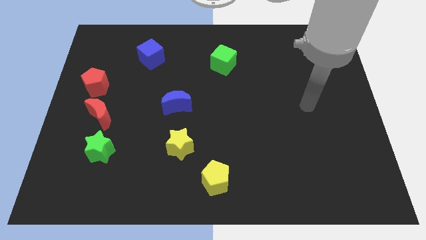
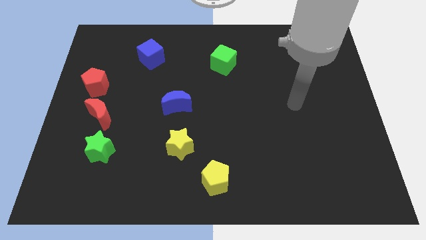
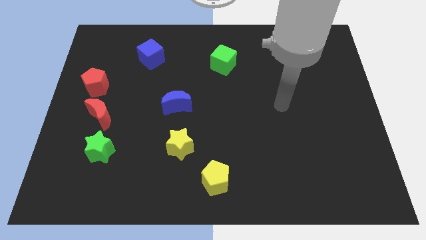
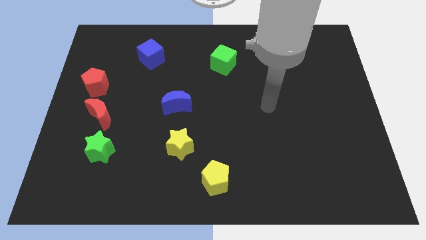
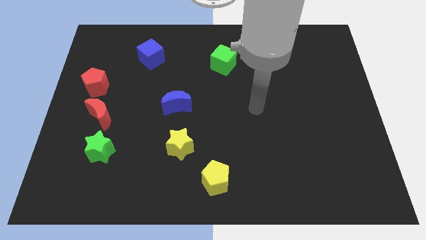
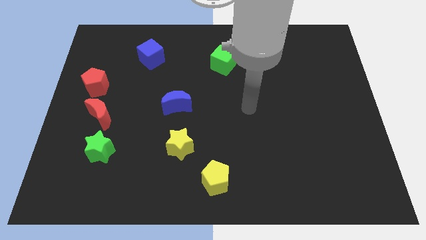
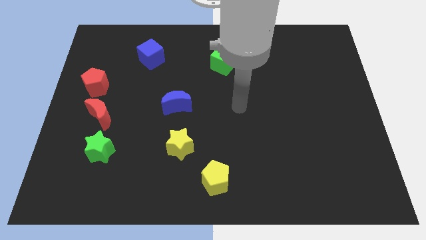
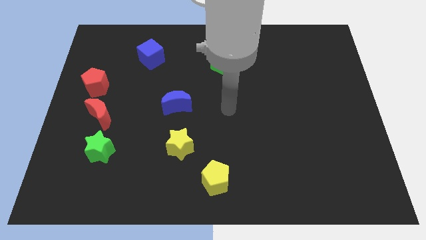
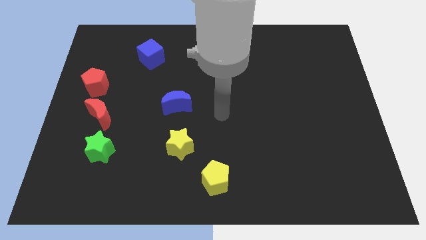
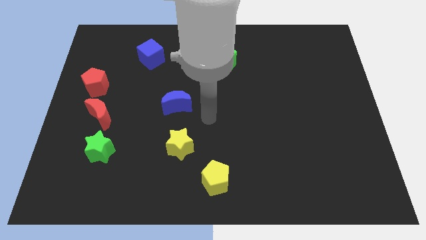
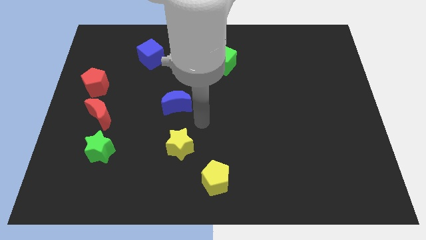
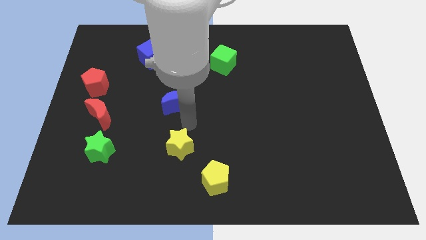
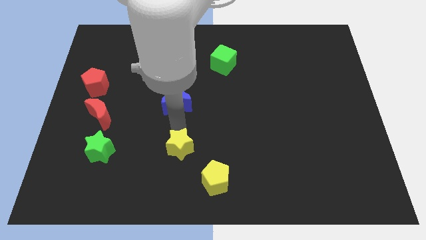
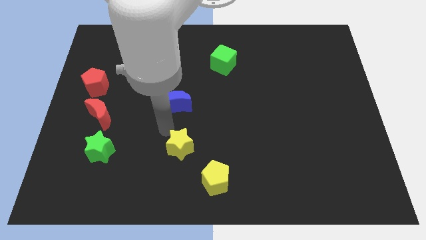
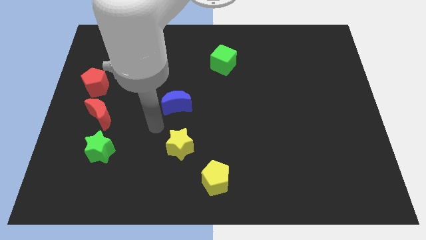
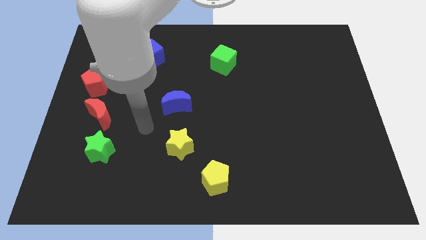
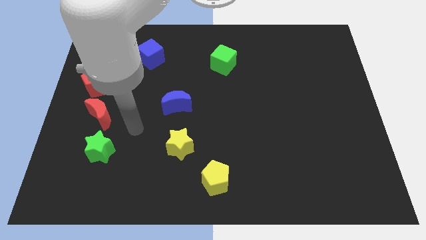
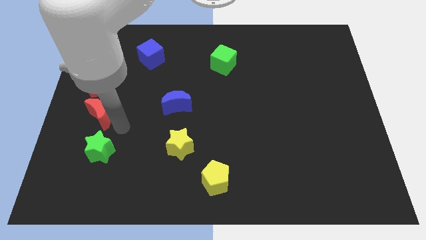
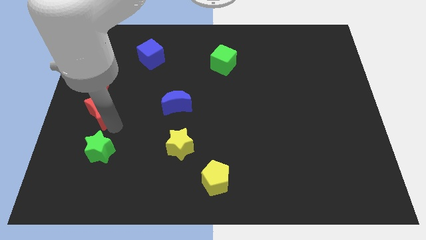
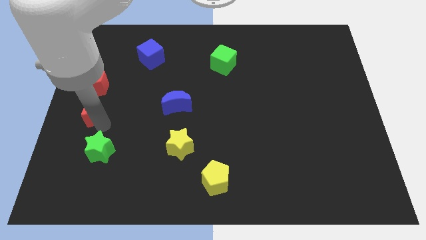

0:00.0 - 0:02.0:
pull the green star apart from the red moon

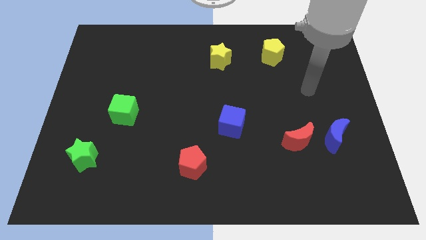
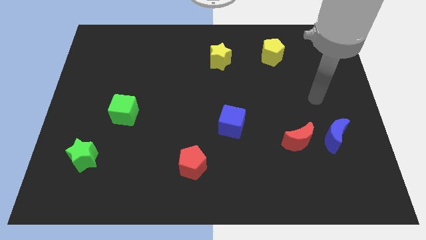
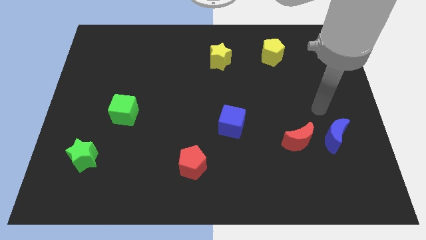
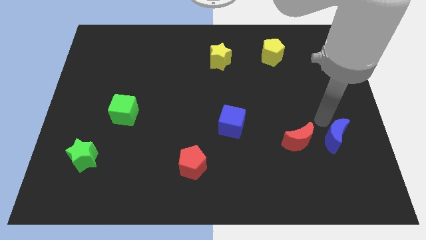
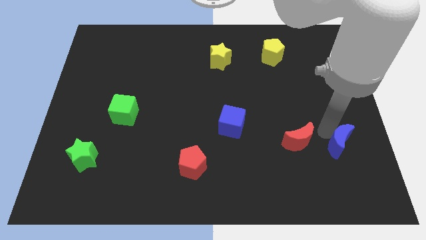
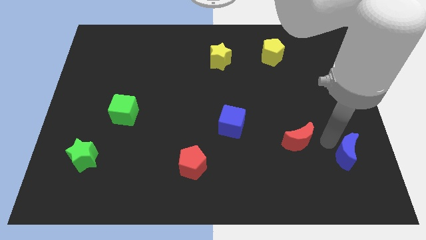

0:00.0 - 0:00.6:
move the red moon away from the blue moon

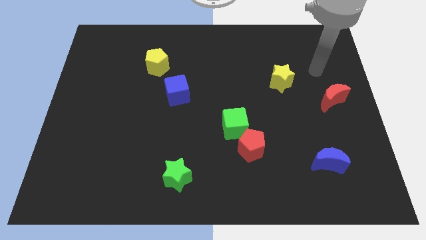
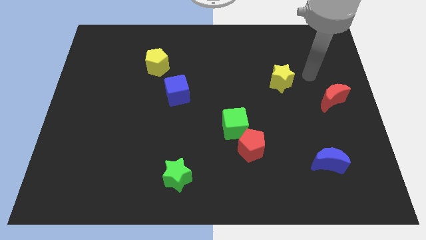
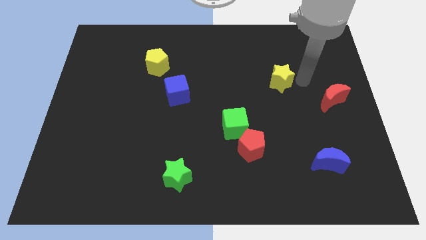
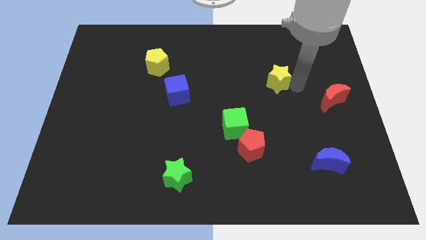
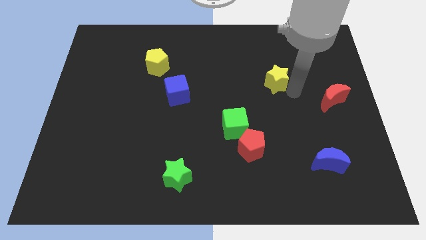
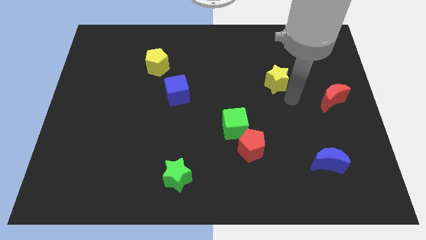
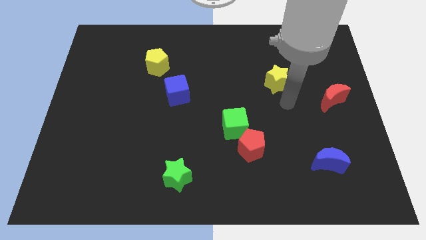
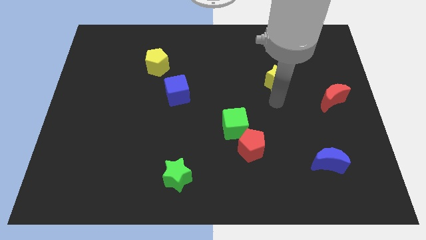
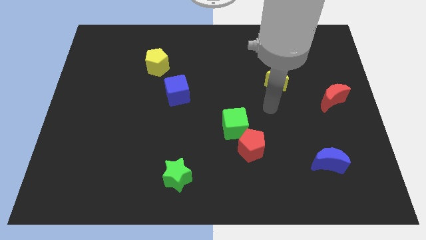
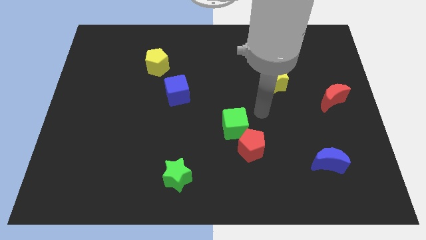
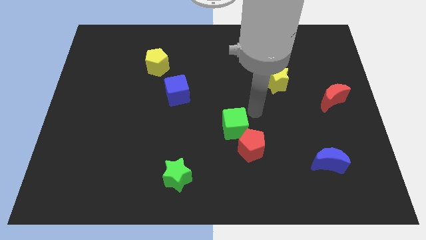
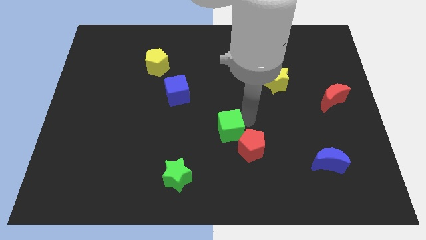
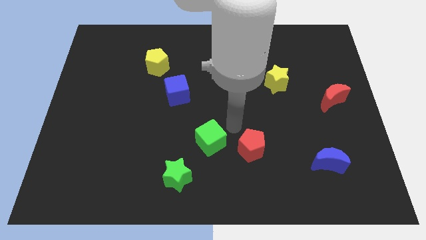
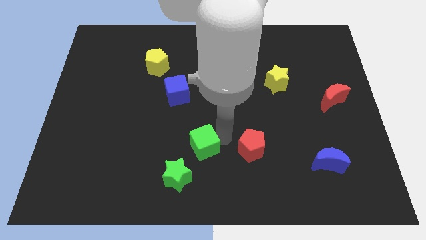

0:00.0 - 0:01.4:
separate the red pentagon from the green cube

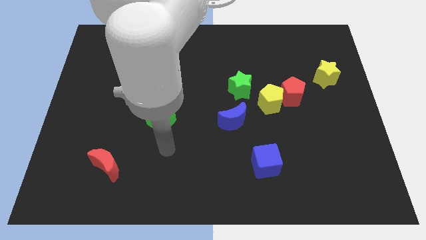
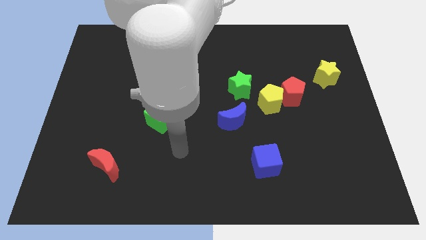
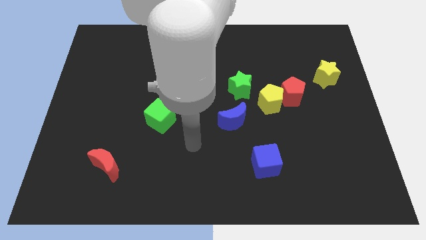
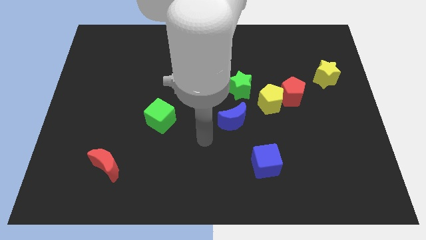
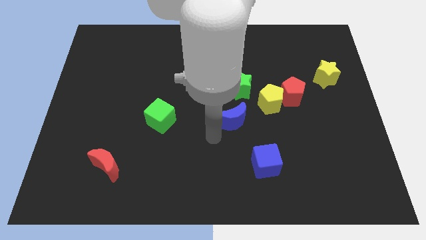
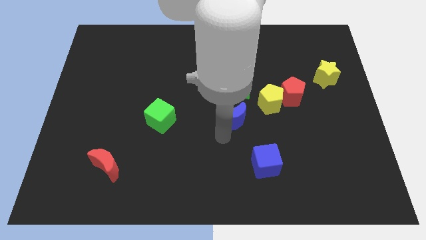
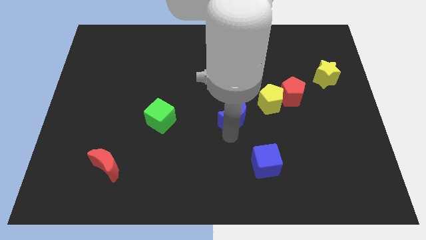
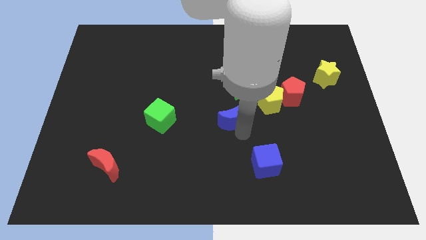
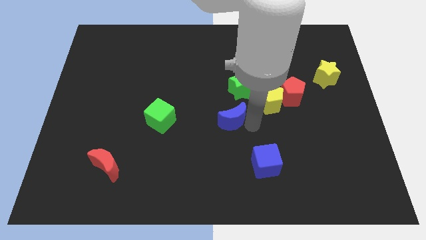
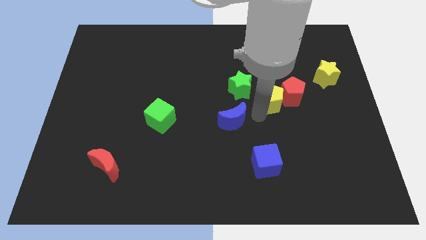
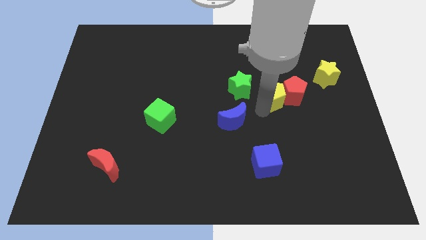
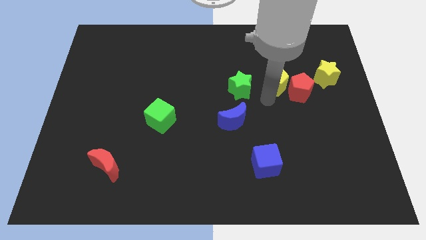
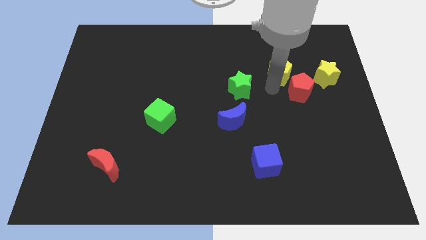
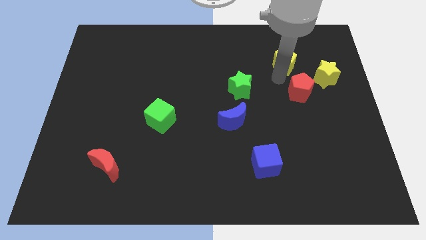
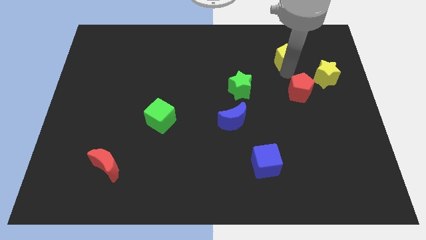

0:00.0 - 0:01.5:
separate the red pentagon from the yellow pentagon

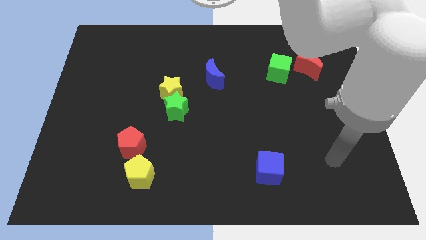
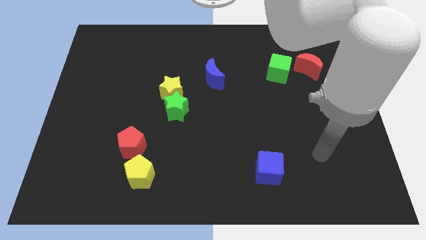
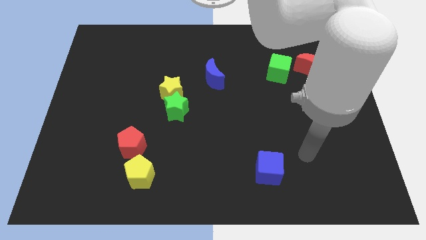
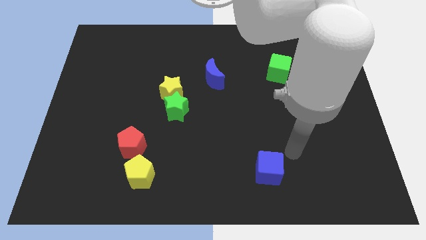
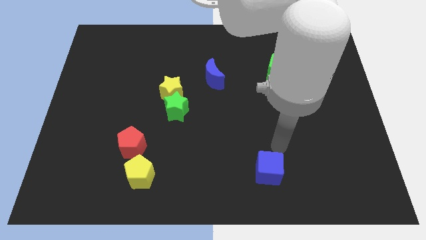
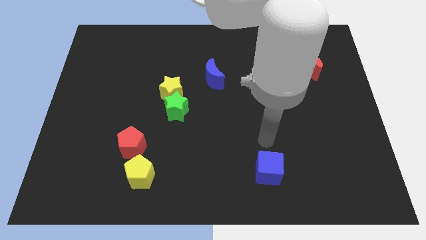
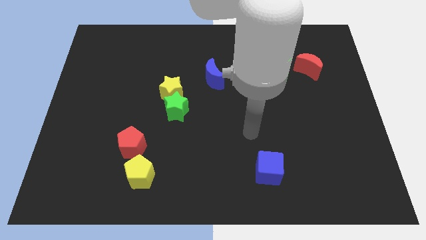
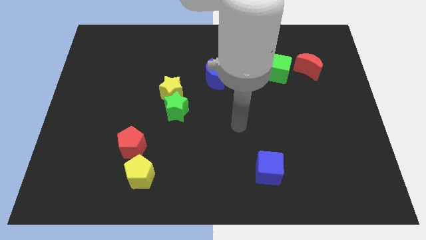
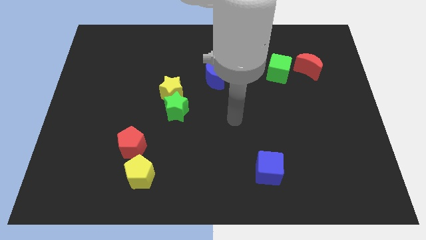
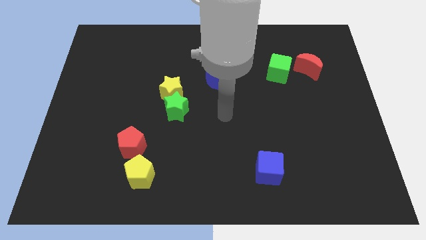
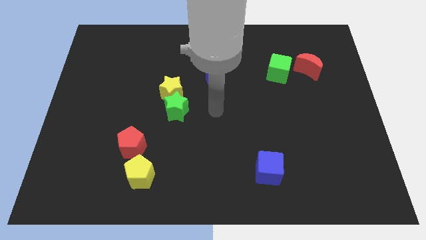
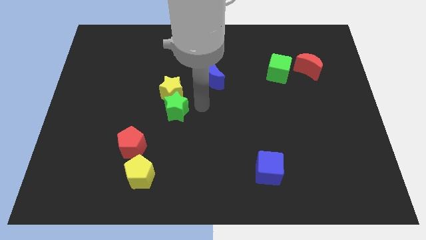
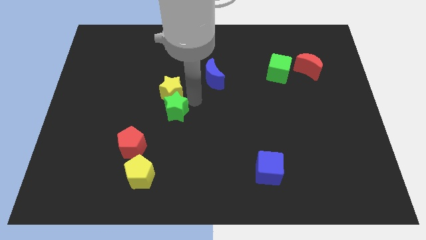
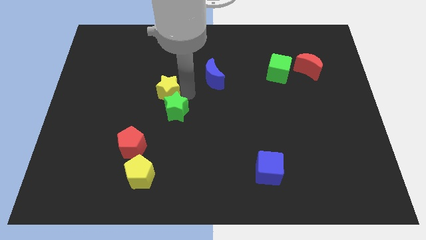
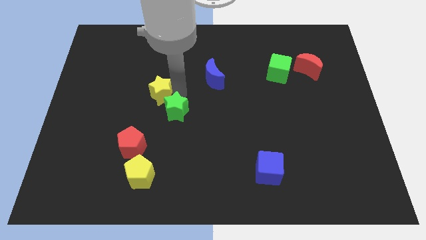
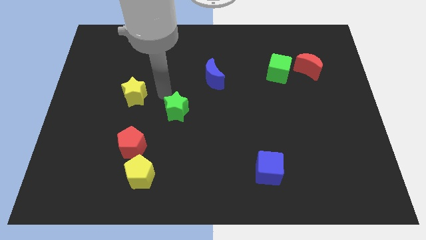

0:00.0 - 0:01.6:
pull the green star apart from the yellow star

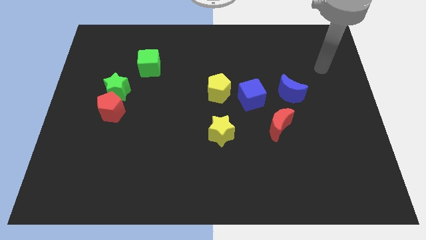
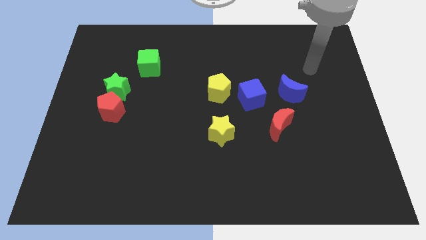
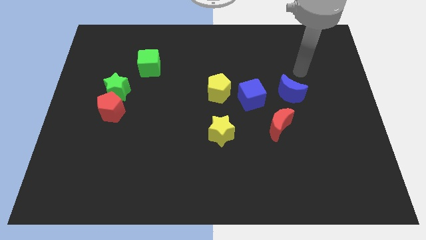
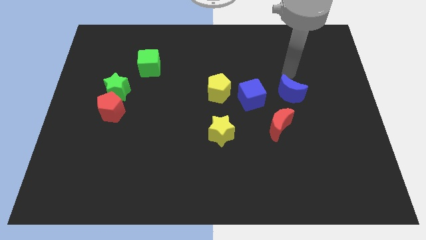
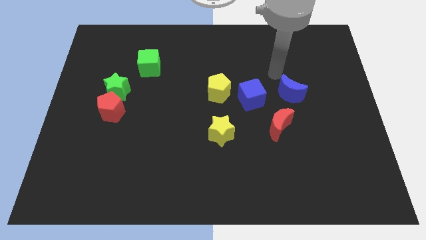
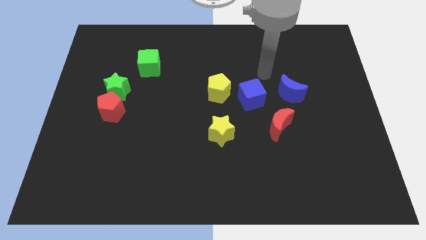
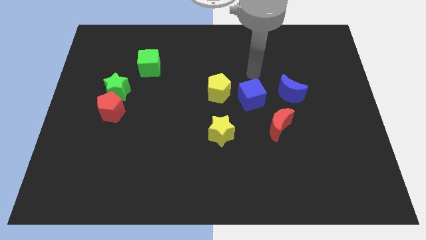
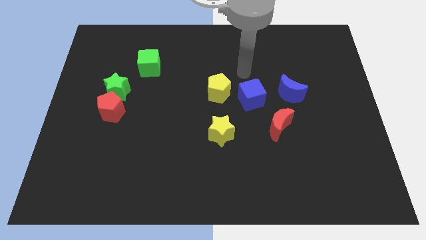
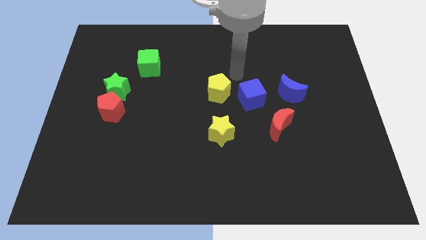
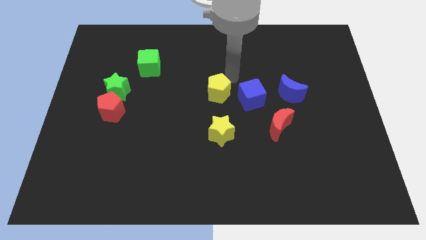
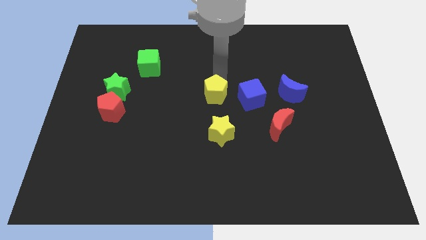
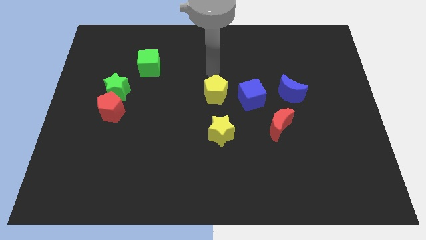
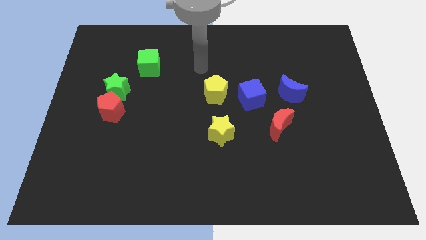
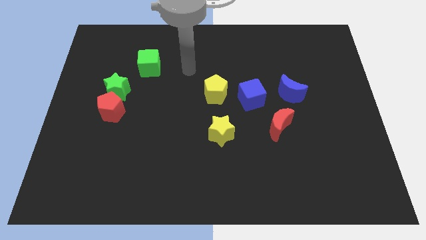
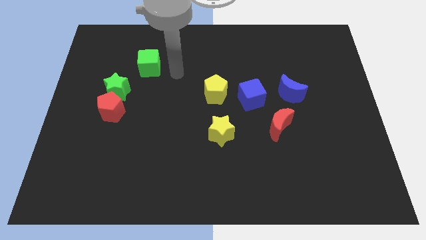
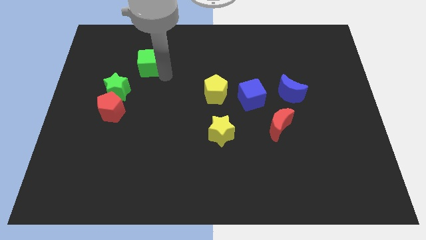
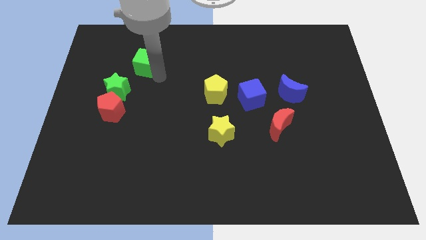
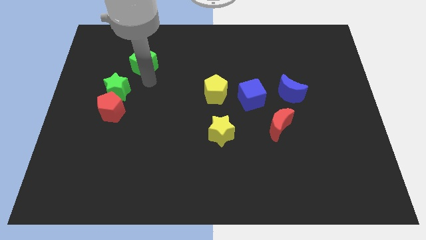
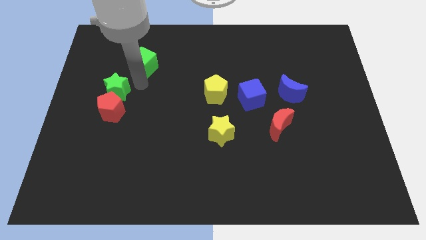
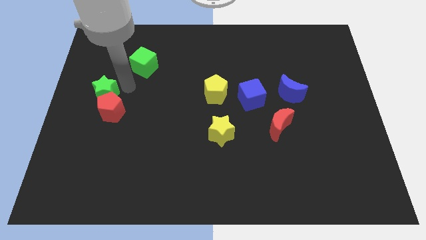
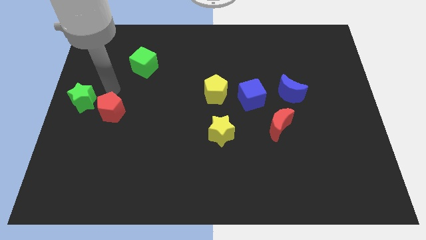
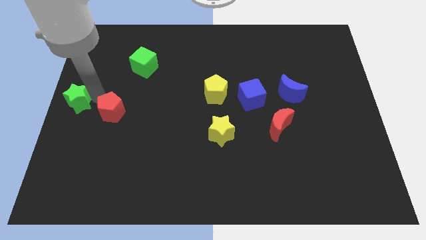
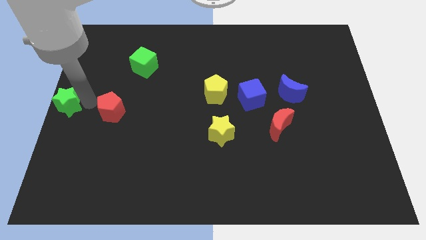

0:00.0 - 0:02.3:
move the red pentagon away from the green star

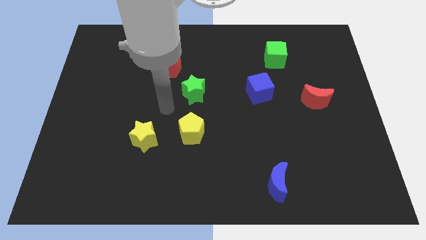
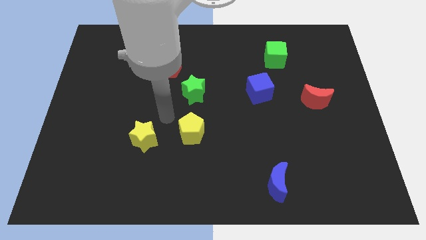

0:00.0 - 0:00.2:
pull the yellow star apart from the yellow pentagon
